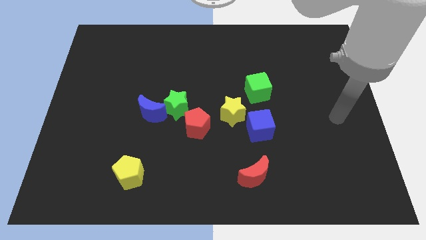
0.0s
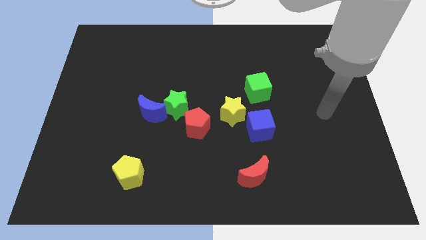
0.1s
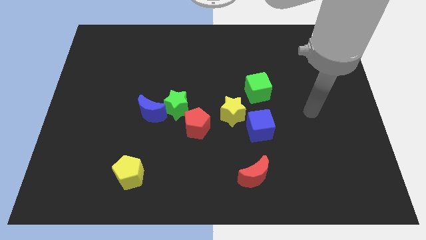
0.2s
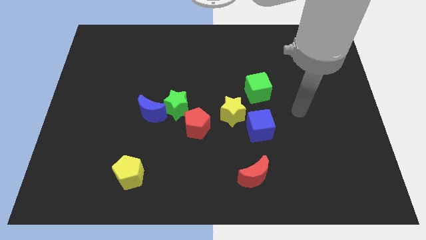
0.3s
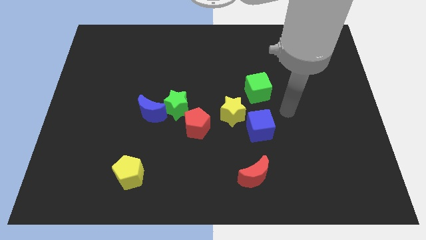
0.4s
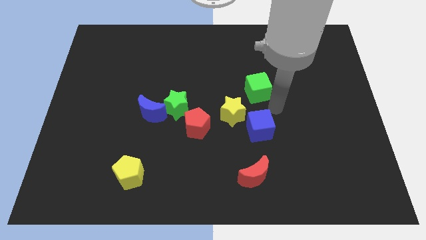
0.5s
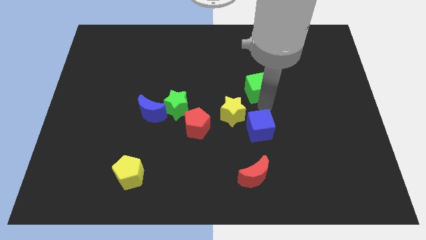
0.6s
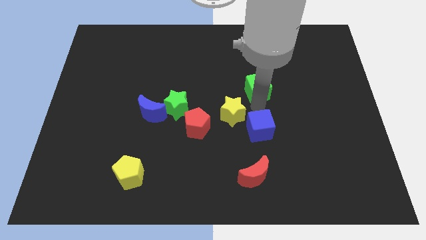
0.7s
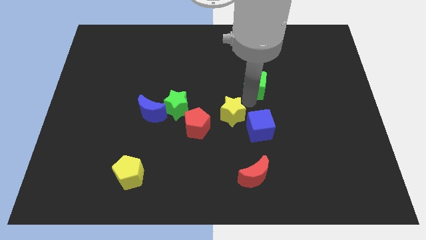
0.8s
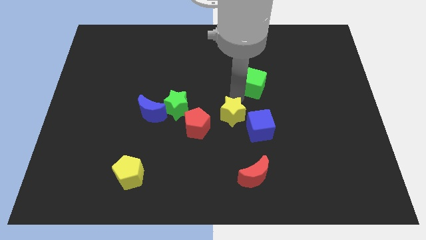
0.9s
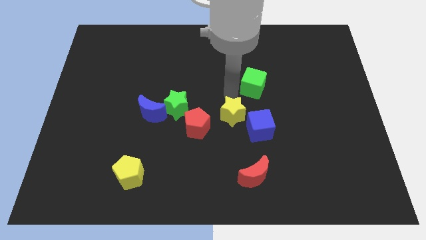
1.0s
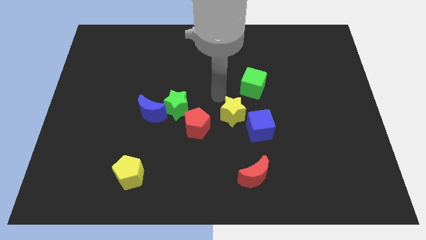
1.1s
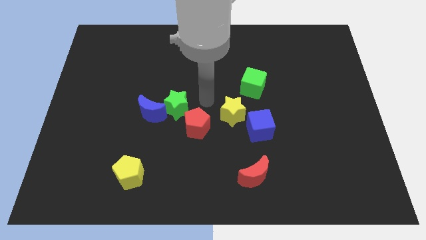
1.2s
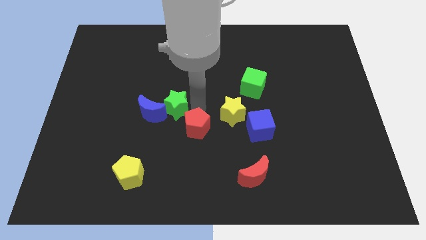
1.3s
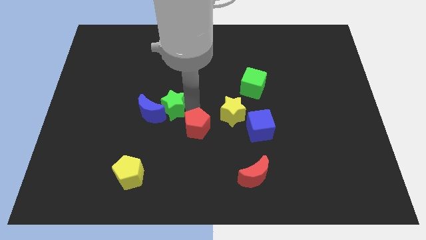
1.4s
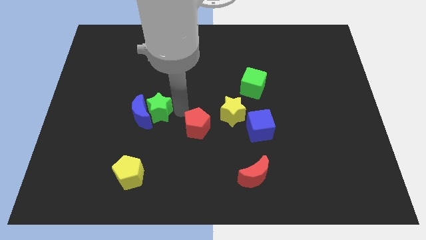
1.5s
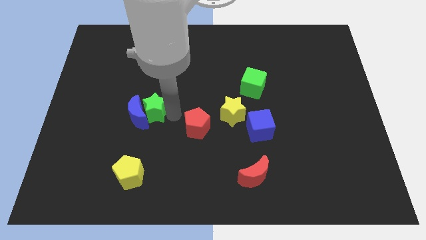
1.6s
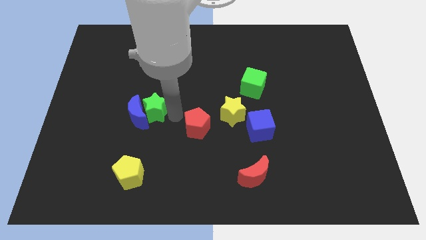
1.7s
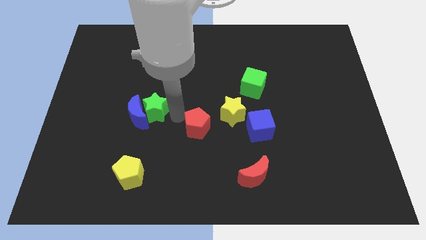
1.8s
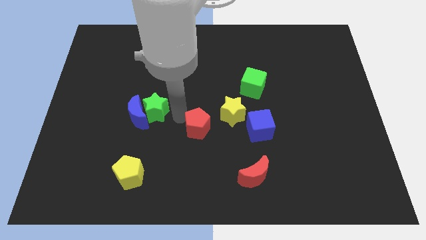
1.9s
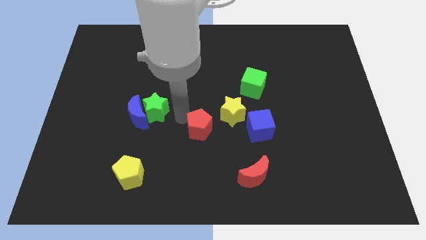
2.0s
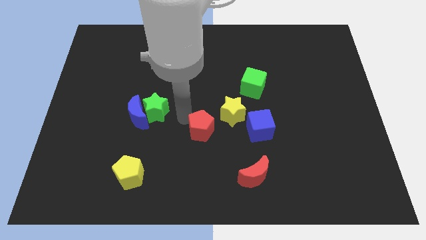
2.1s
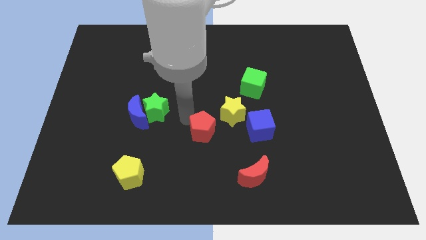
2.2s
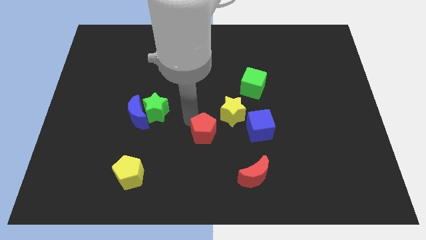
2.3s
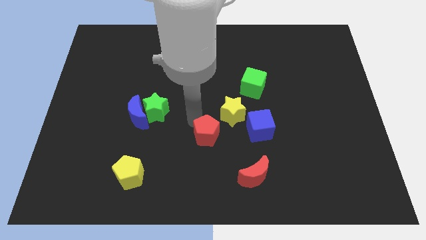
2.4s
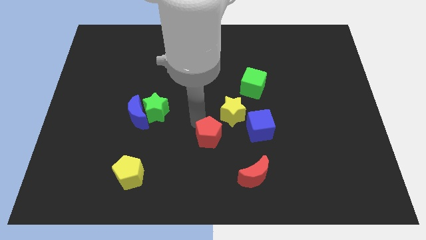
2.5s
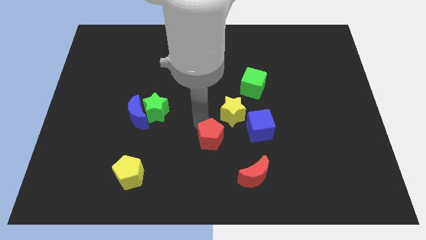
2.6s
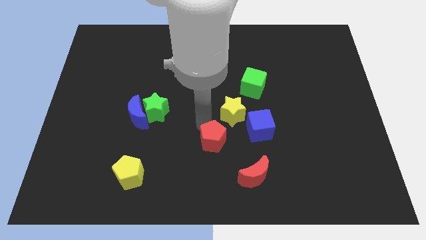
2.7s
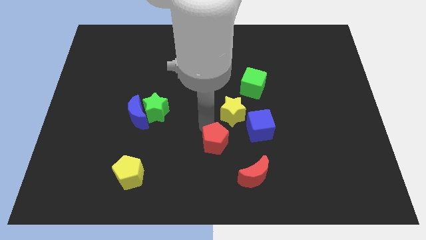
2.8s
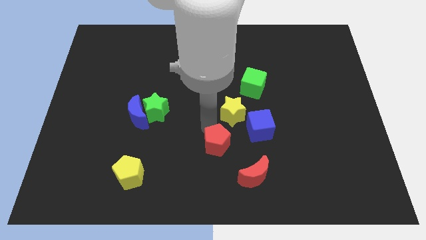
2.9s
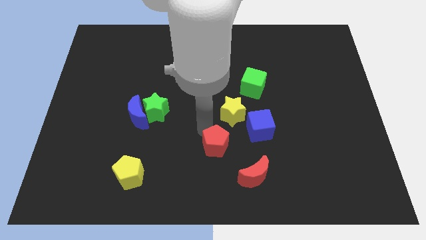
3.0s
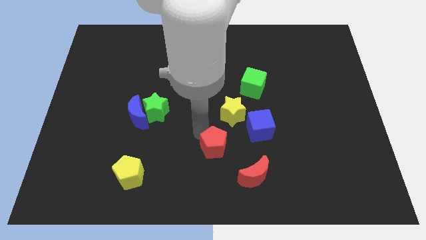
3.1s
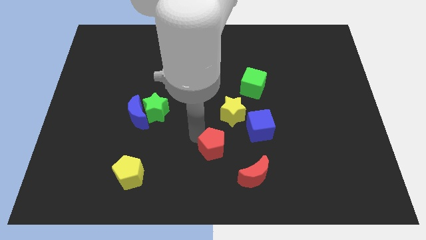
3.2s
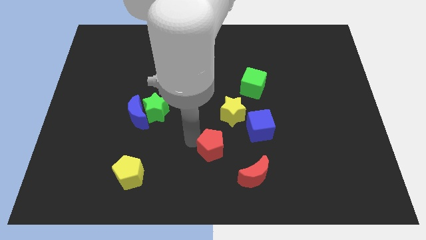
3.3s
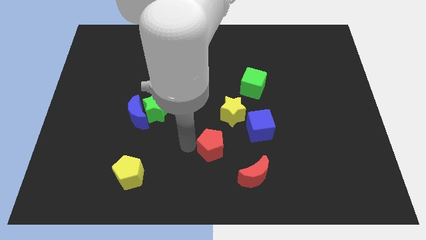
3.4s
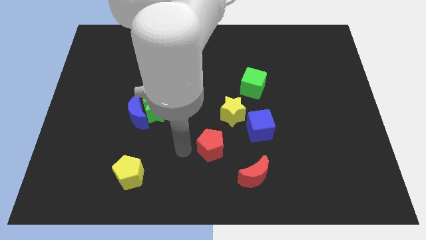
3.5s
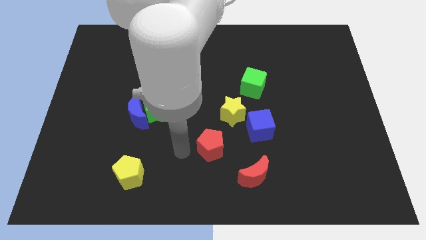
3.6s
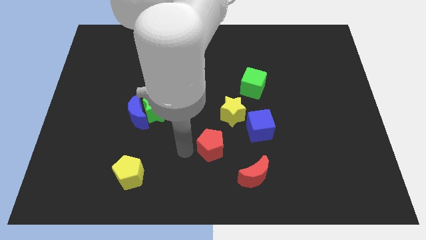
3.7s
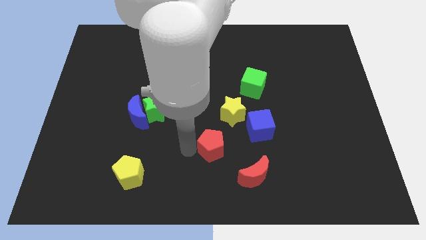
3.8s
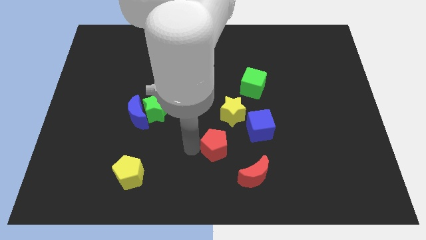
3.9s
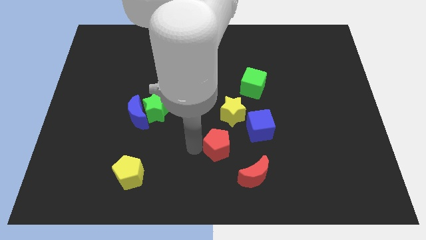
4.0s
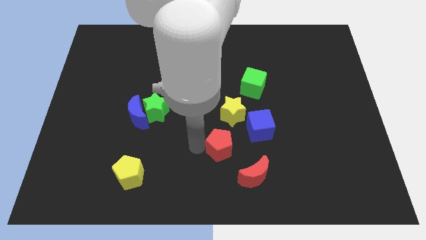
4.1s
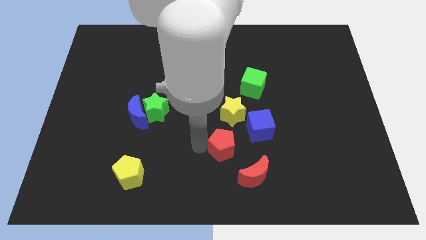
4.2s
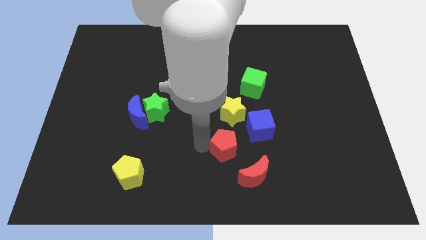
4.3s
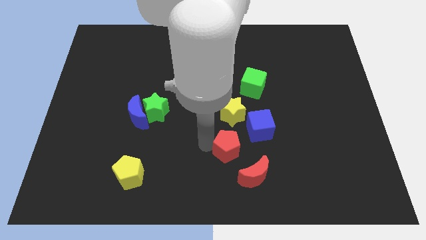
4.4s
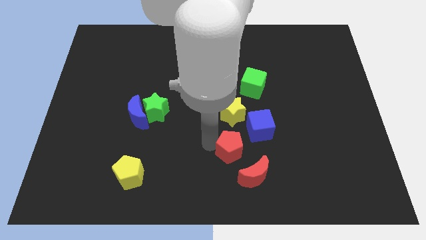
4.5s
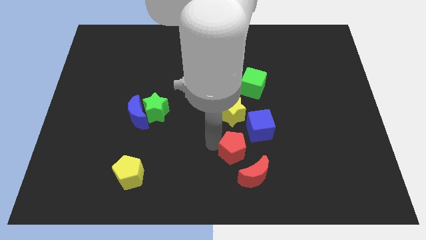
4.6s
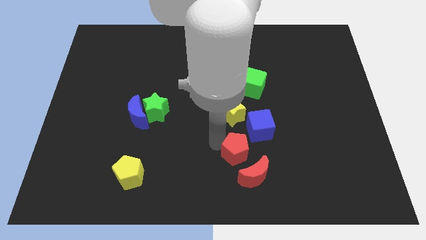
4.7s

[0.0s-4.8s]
slightly slide the red pentagon to the right

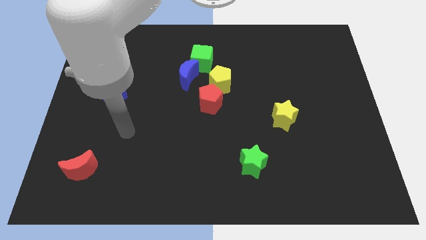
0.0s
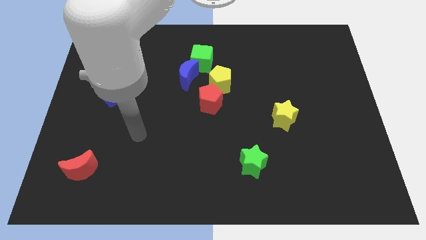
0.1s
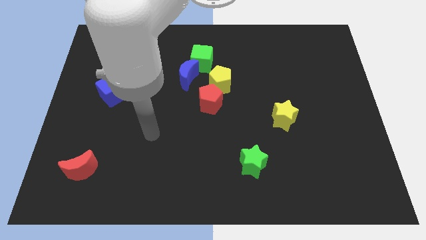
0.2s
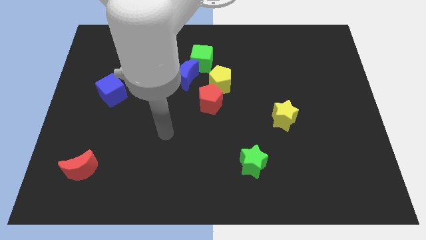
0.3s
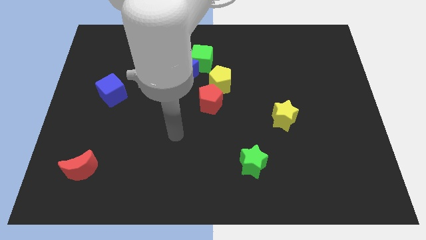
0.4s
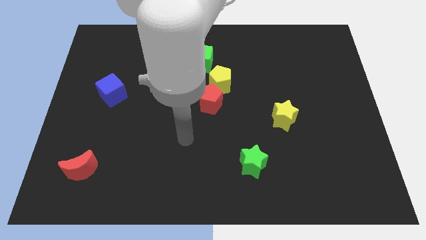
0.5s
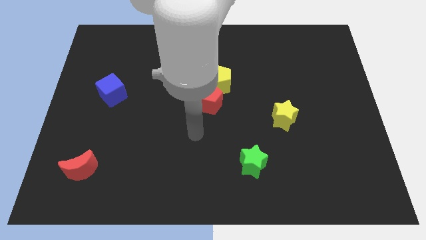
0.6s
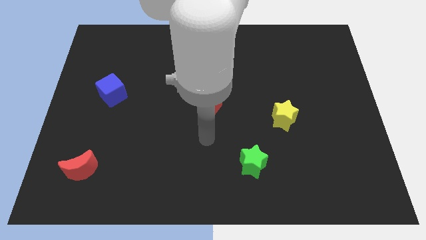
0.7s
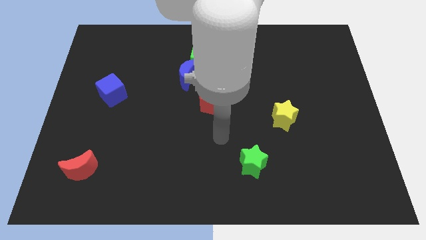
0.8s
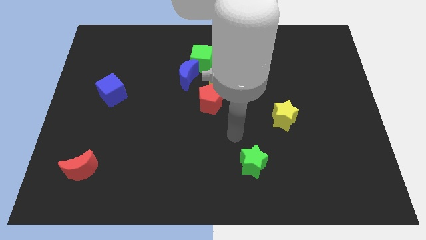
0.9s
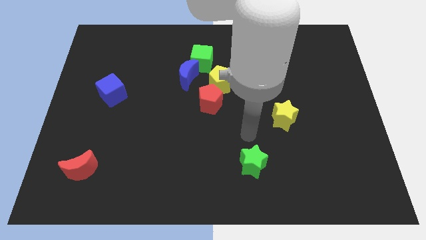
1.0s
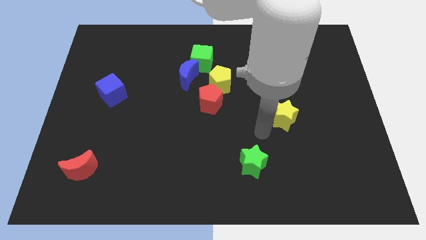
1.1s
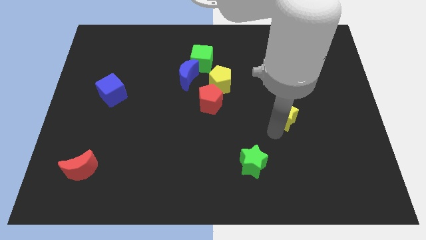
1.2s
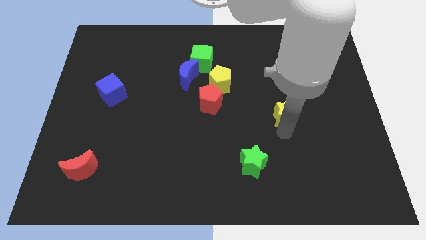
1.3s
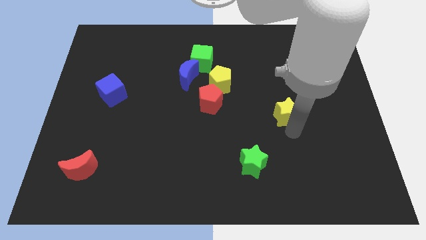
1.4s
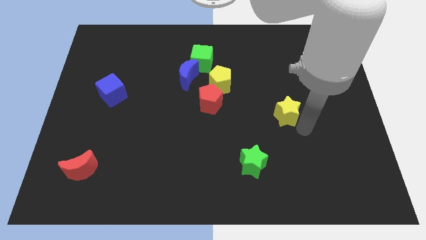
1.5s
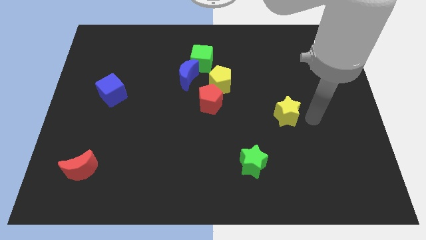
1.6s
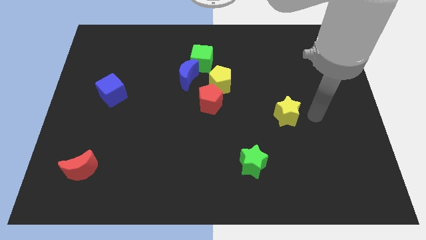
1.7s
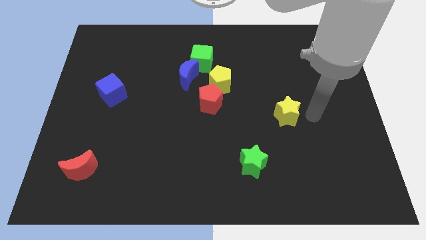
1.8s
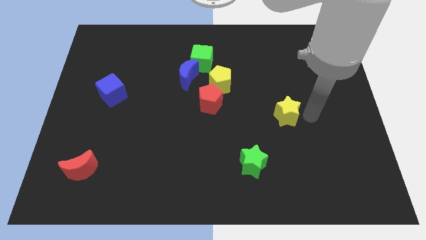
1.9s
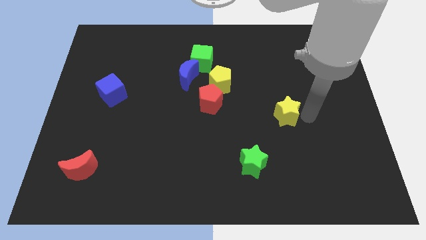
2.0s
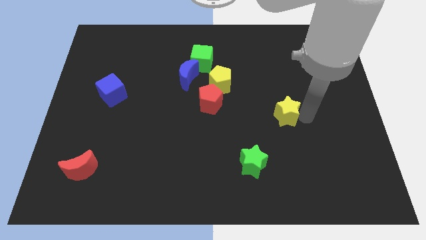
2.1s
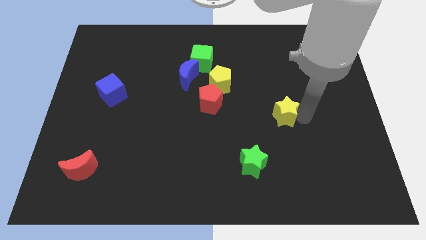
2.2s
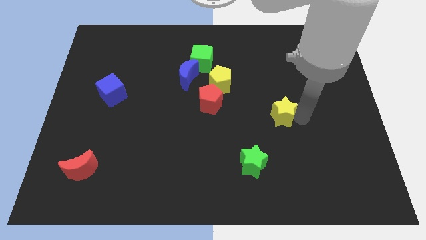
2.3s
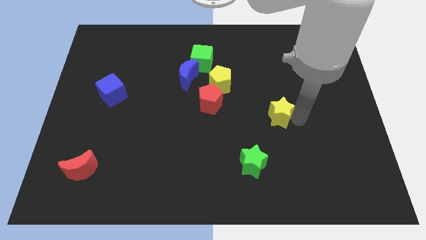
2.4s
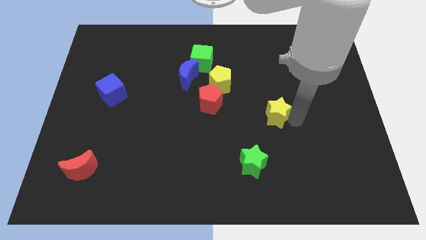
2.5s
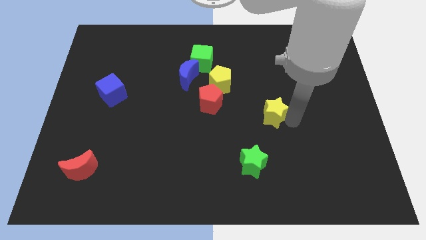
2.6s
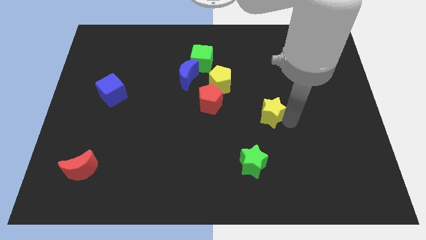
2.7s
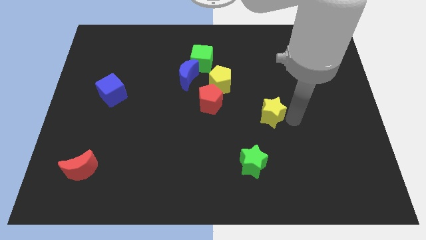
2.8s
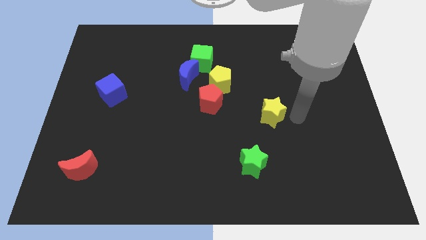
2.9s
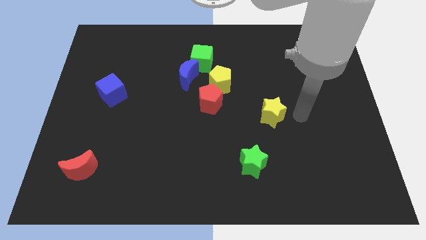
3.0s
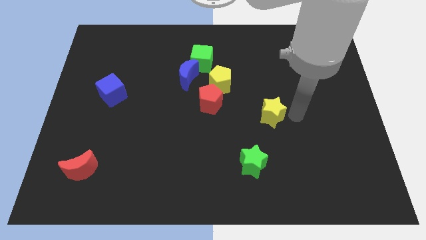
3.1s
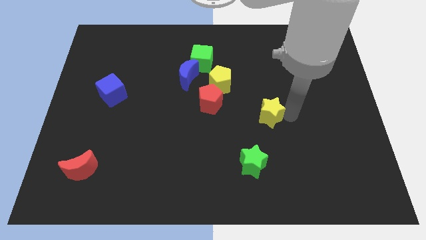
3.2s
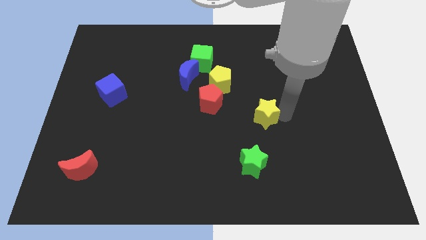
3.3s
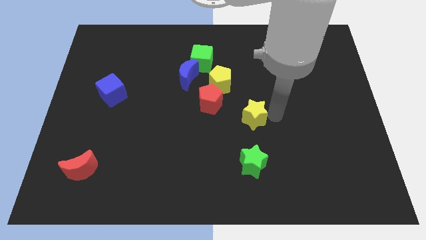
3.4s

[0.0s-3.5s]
push the yellow star to the left a little
